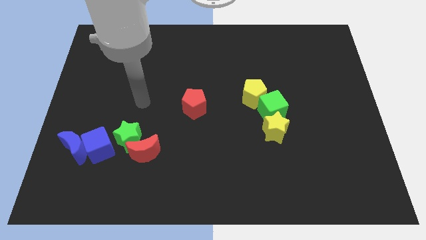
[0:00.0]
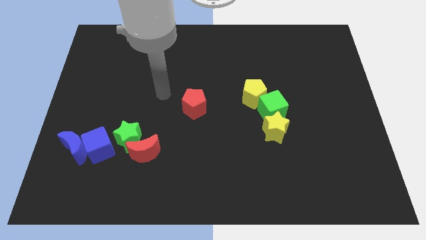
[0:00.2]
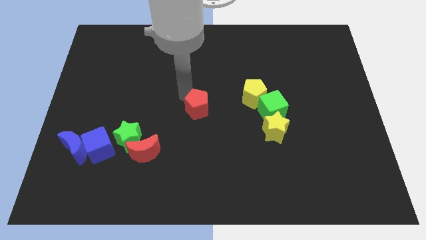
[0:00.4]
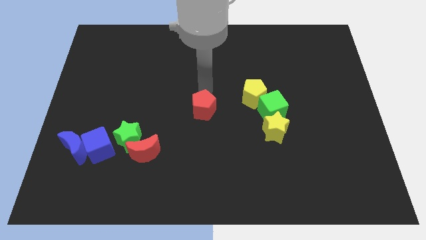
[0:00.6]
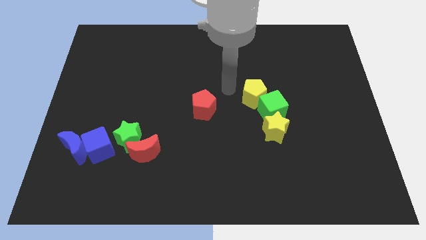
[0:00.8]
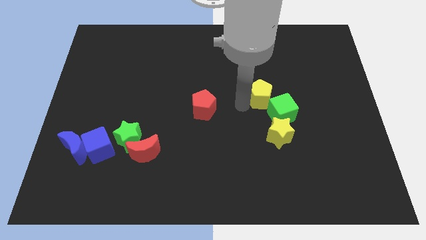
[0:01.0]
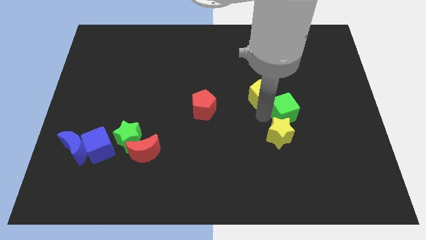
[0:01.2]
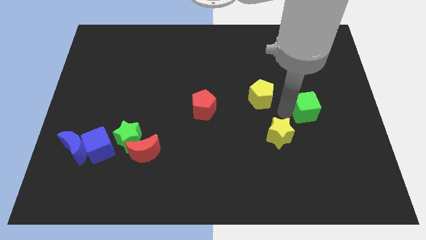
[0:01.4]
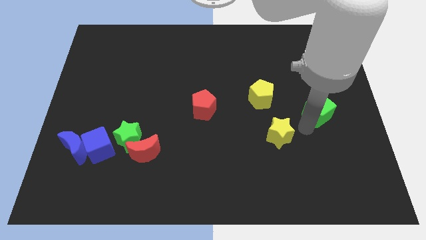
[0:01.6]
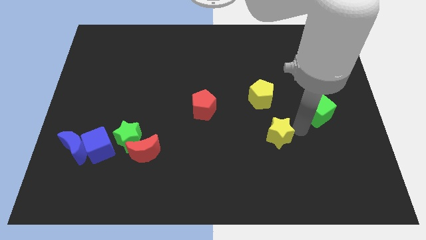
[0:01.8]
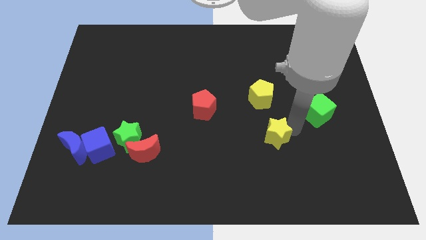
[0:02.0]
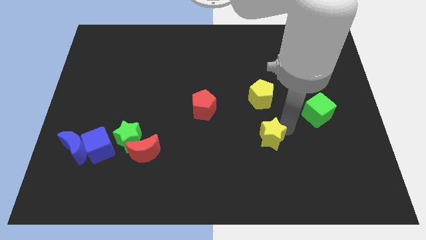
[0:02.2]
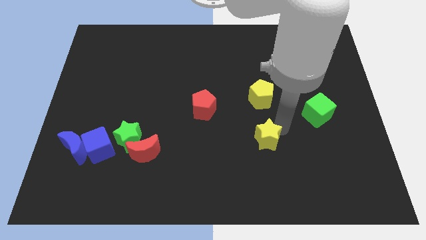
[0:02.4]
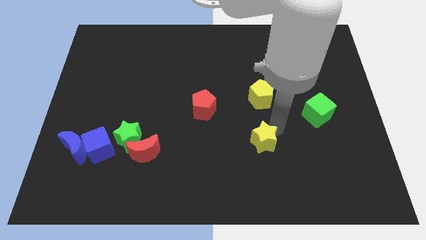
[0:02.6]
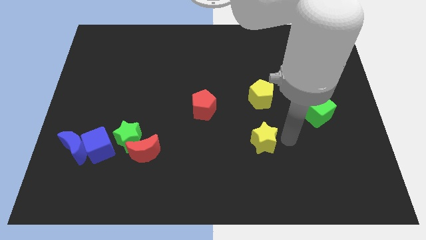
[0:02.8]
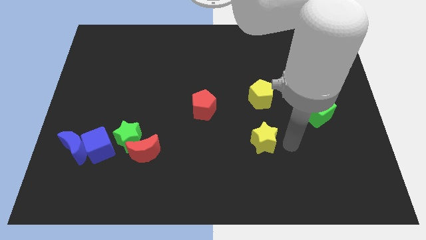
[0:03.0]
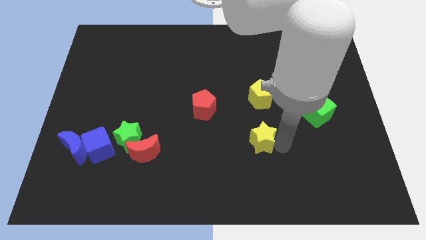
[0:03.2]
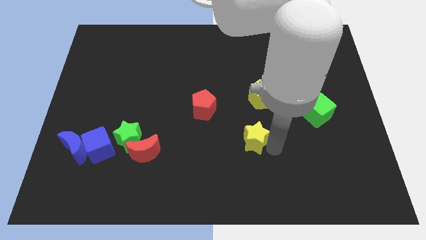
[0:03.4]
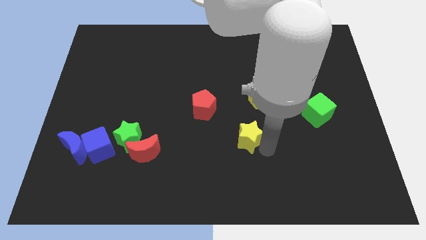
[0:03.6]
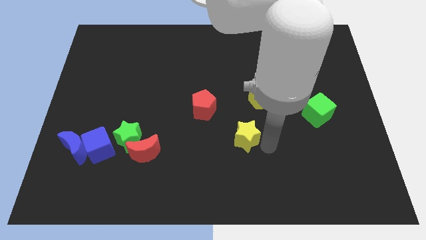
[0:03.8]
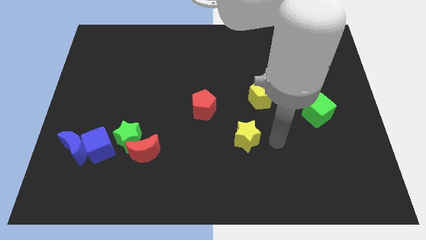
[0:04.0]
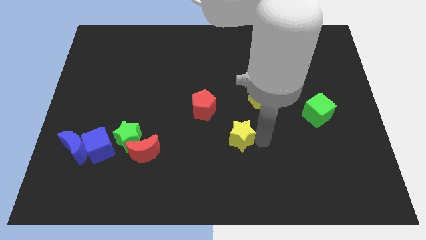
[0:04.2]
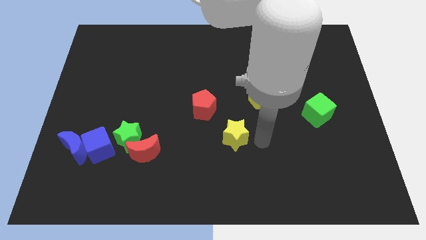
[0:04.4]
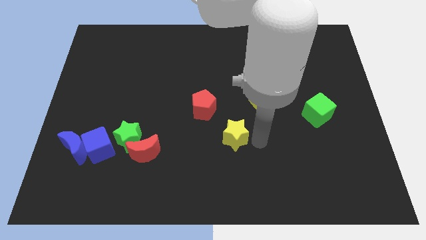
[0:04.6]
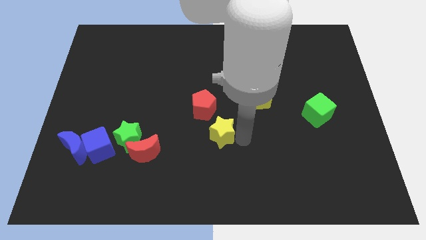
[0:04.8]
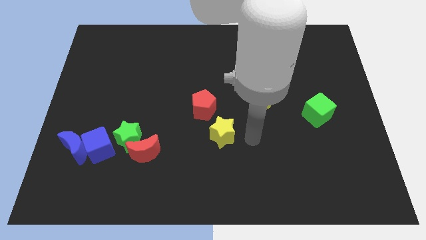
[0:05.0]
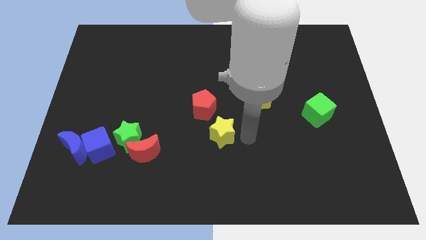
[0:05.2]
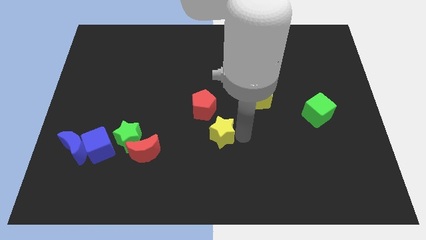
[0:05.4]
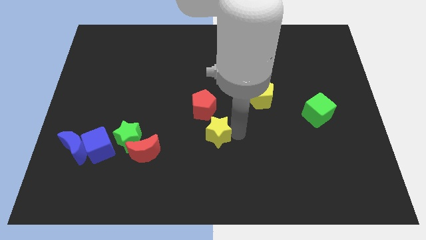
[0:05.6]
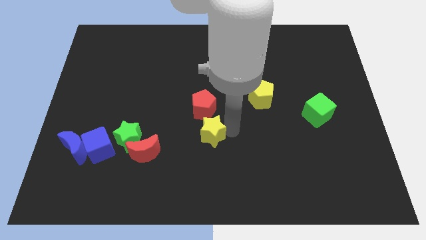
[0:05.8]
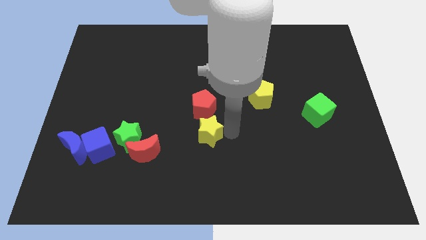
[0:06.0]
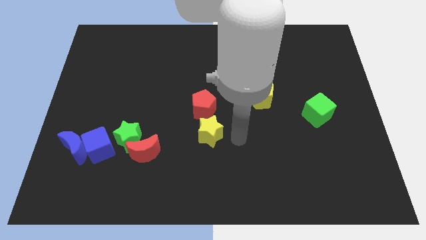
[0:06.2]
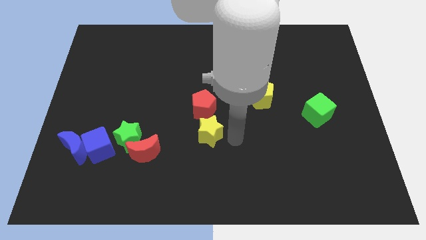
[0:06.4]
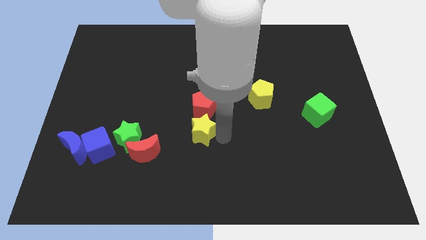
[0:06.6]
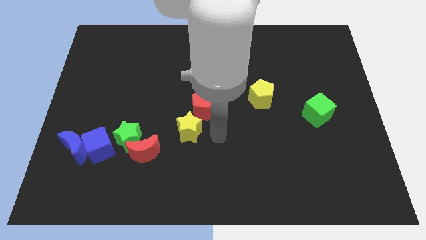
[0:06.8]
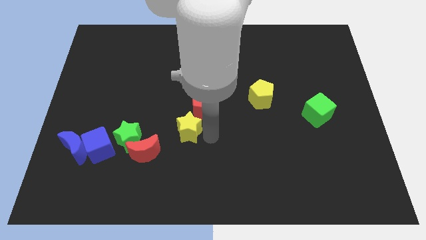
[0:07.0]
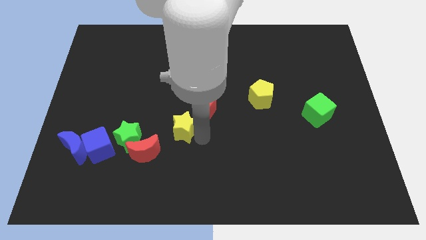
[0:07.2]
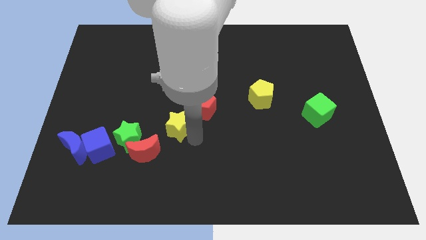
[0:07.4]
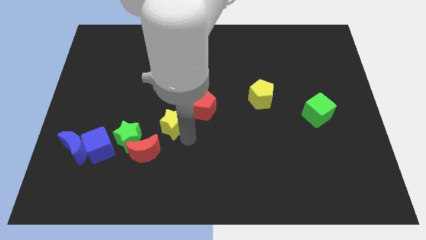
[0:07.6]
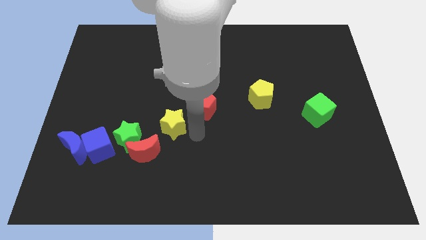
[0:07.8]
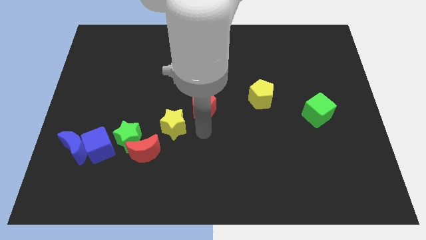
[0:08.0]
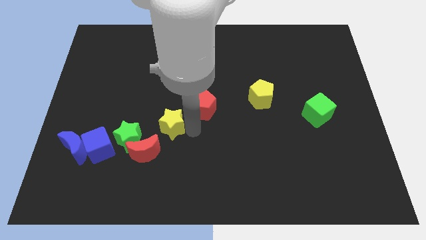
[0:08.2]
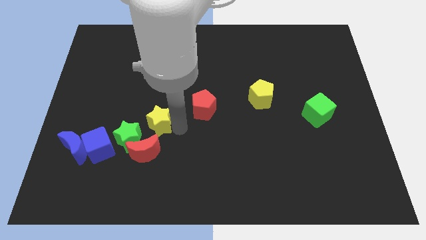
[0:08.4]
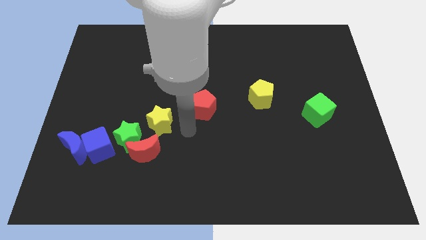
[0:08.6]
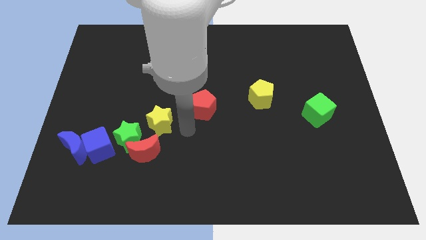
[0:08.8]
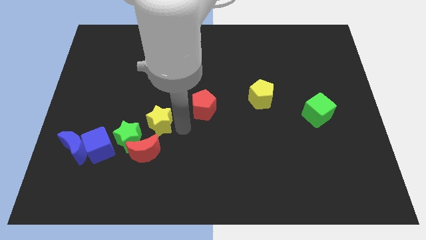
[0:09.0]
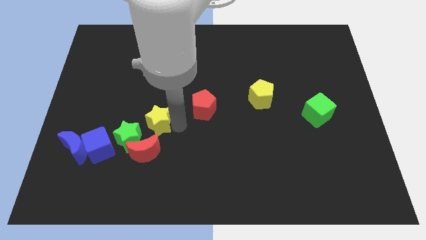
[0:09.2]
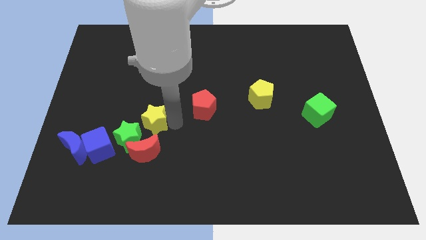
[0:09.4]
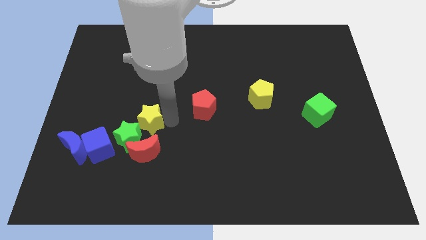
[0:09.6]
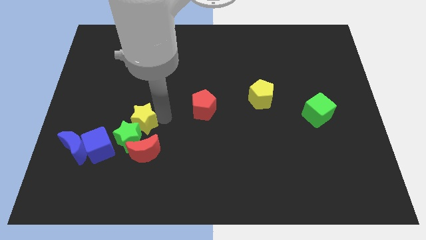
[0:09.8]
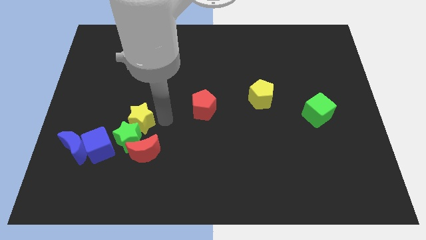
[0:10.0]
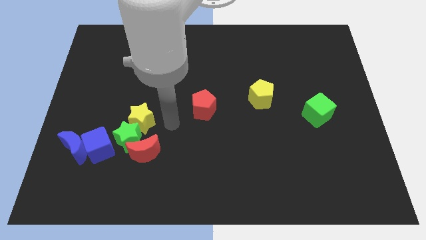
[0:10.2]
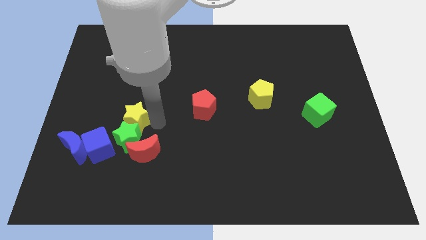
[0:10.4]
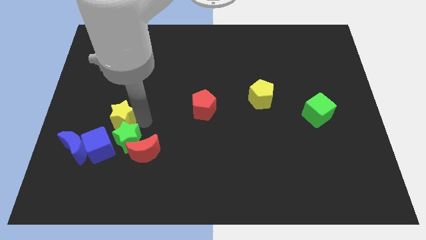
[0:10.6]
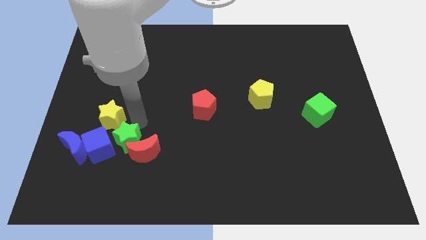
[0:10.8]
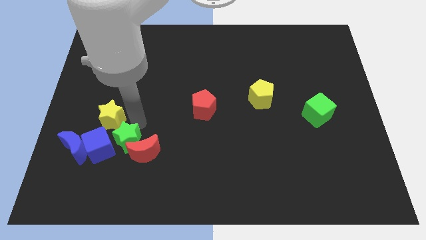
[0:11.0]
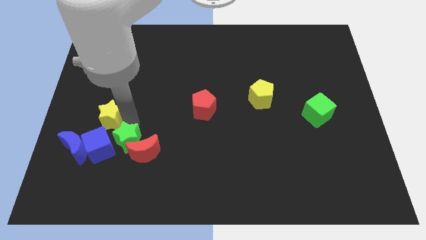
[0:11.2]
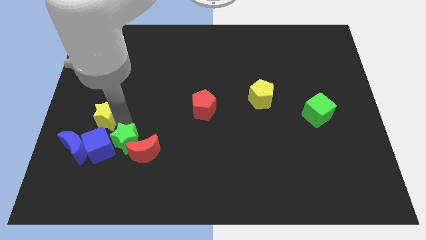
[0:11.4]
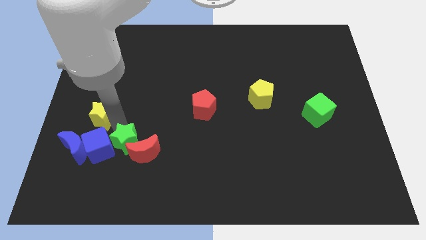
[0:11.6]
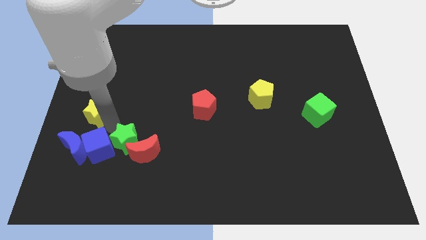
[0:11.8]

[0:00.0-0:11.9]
put the yellow star to the left side of the board

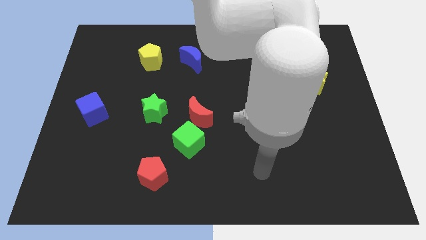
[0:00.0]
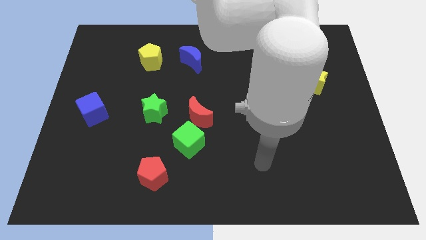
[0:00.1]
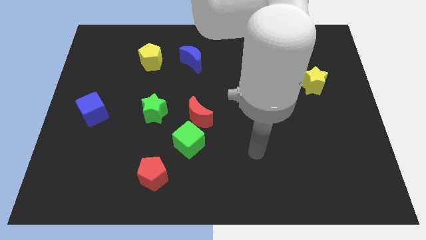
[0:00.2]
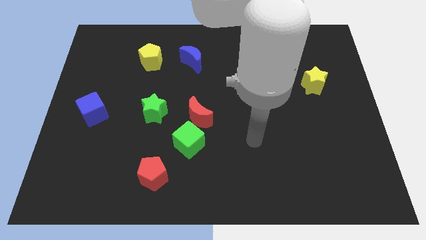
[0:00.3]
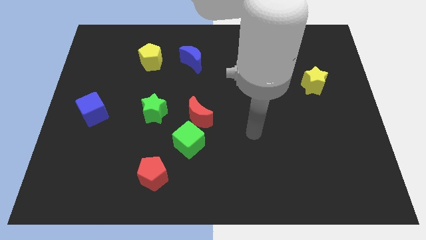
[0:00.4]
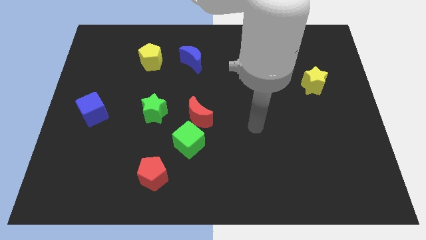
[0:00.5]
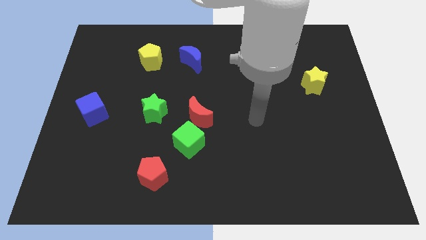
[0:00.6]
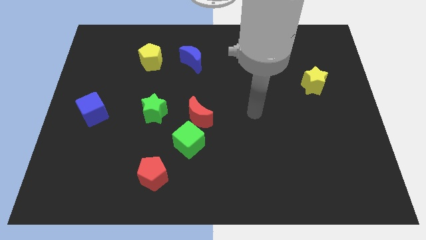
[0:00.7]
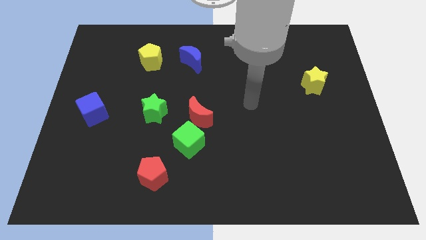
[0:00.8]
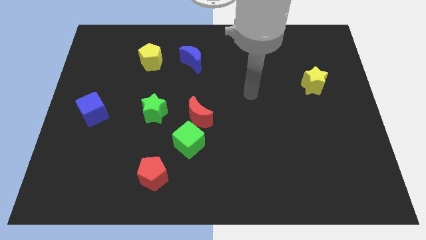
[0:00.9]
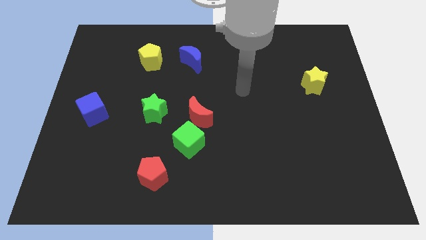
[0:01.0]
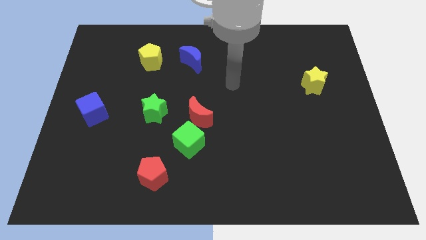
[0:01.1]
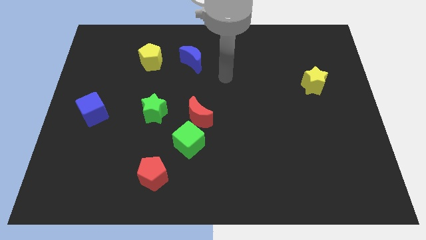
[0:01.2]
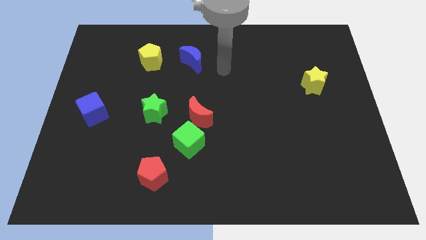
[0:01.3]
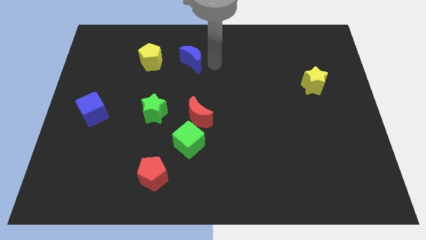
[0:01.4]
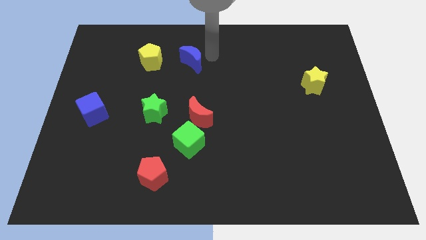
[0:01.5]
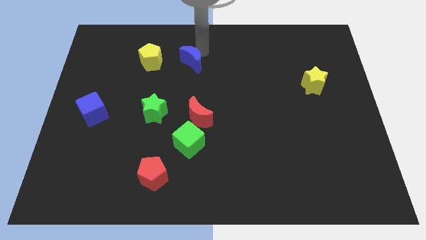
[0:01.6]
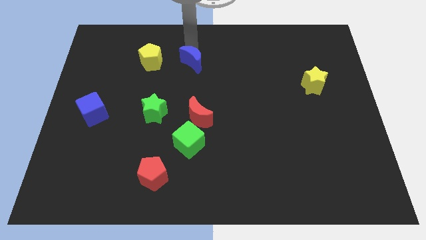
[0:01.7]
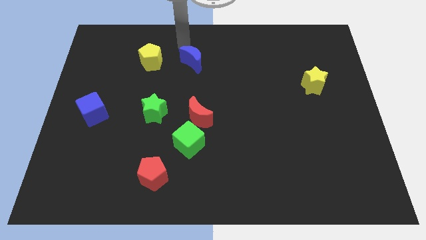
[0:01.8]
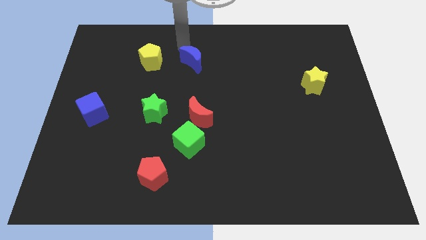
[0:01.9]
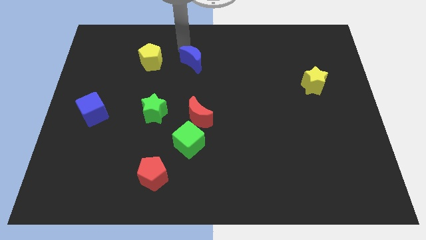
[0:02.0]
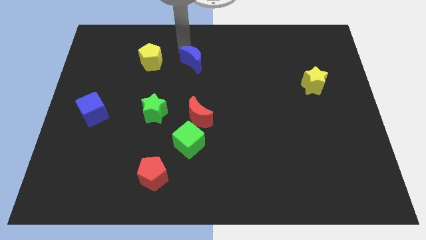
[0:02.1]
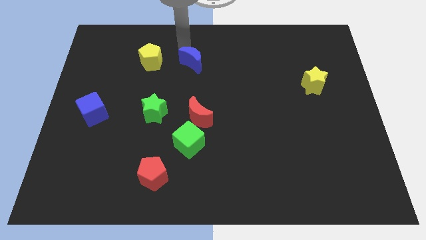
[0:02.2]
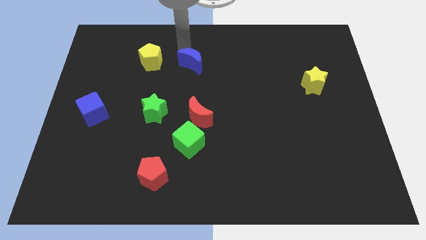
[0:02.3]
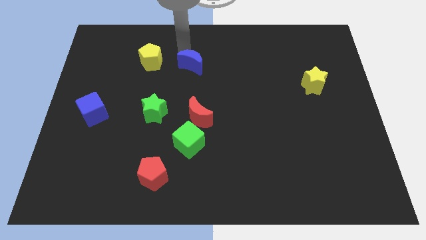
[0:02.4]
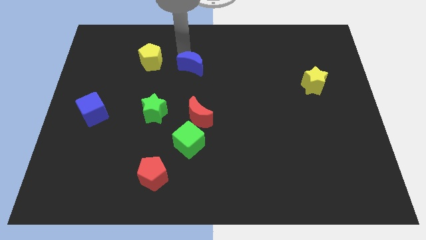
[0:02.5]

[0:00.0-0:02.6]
push the blue moon to the center
